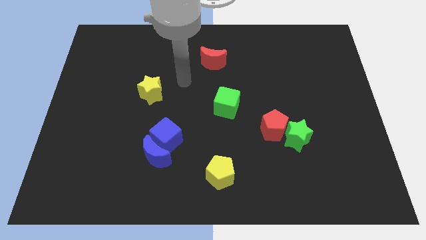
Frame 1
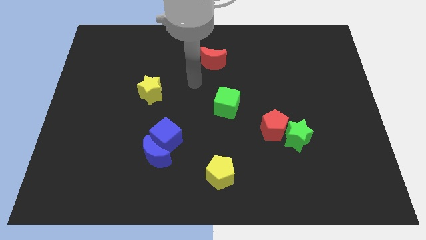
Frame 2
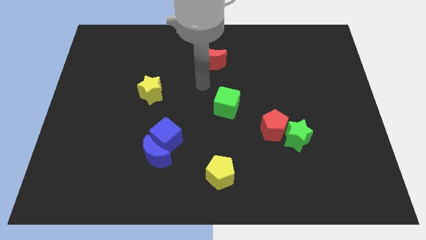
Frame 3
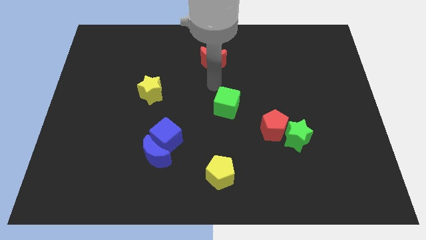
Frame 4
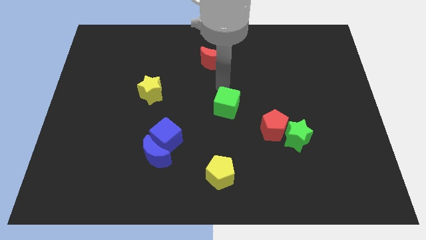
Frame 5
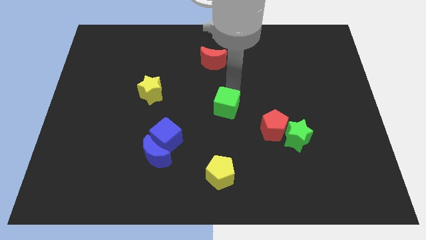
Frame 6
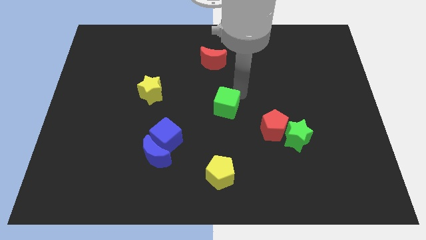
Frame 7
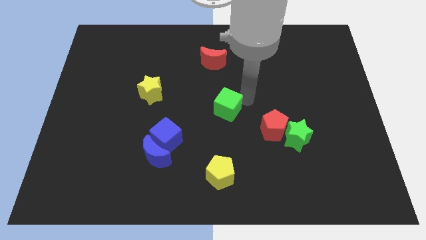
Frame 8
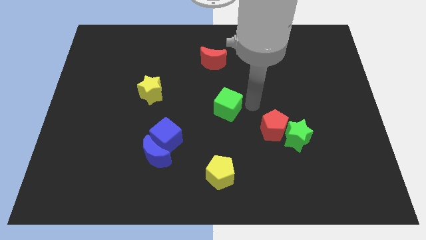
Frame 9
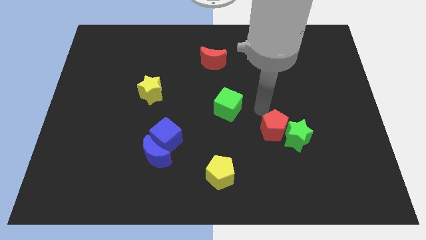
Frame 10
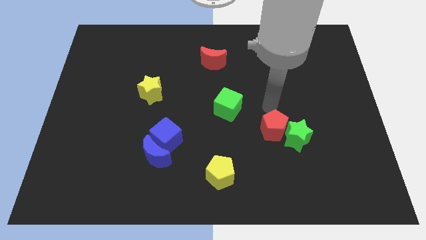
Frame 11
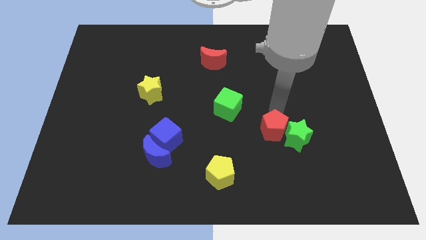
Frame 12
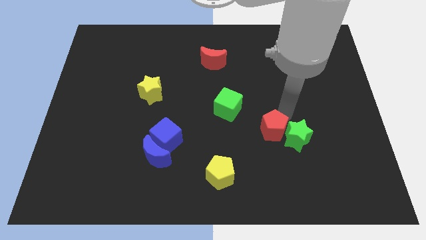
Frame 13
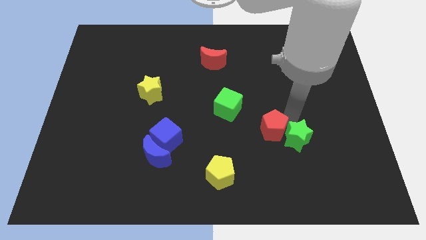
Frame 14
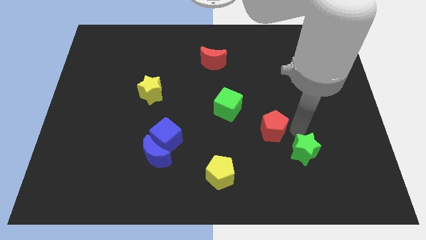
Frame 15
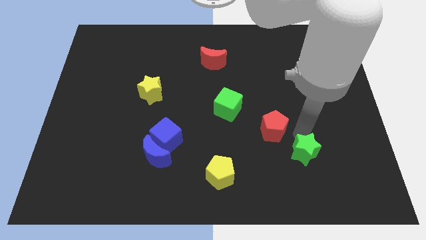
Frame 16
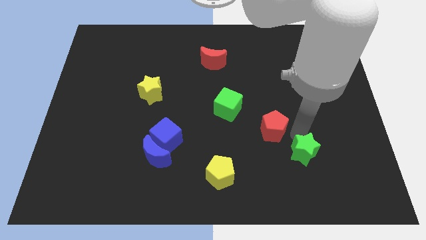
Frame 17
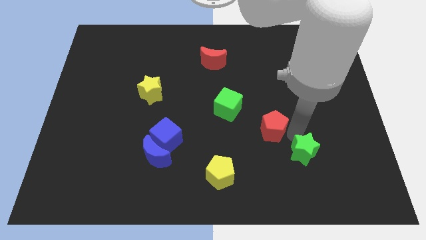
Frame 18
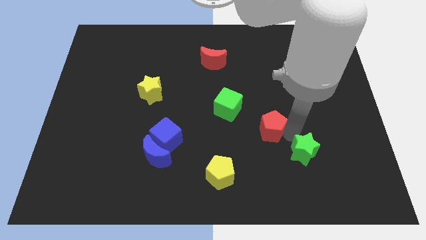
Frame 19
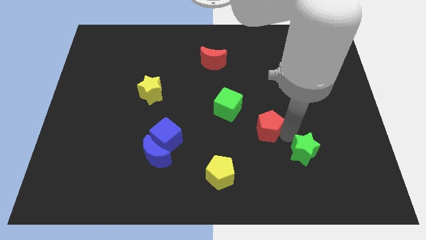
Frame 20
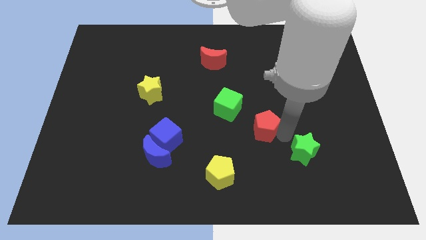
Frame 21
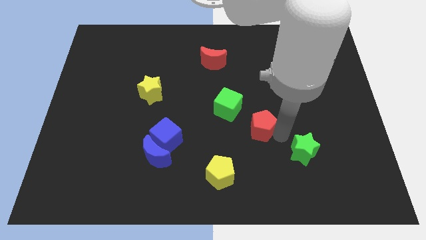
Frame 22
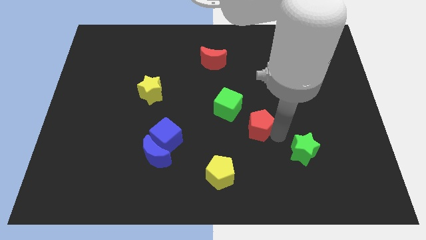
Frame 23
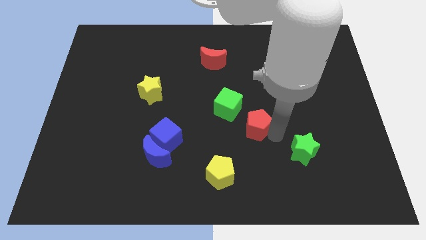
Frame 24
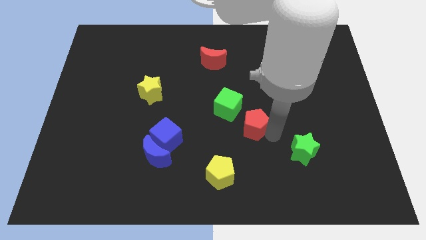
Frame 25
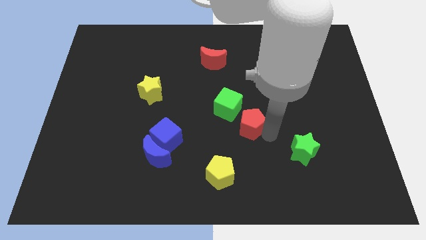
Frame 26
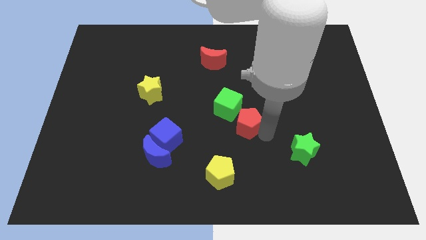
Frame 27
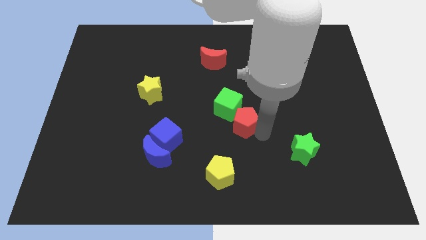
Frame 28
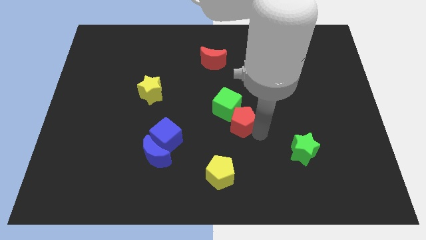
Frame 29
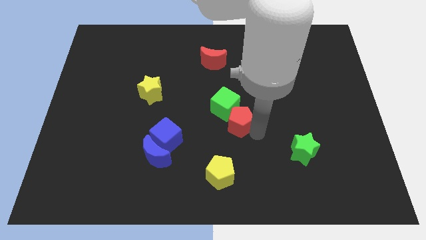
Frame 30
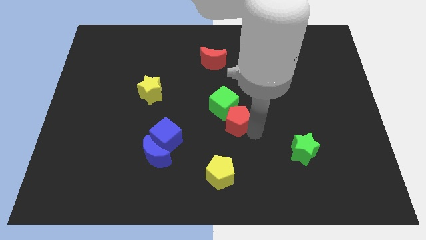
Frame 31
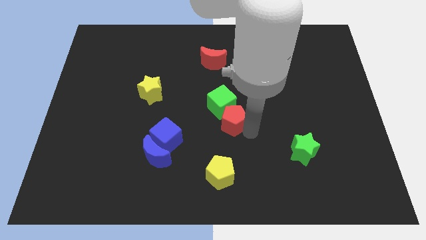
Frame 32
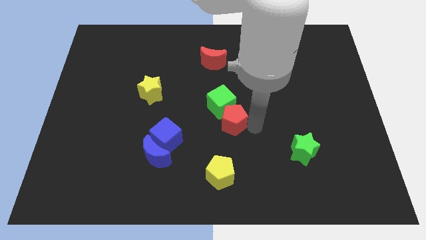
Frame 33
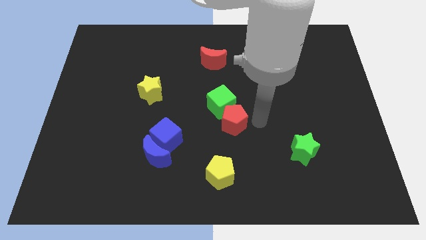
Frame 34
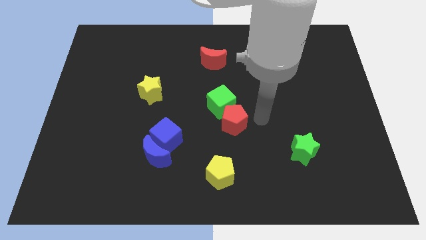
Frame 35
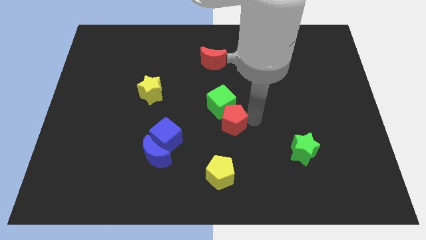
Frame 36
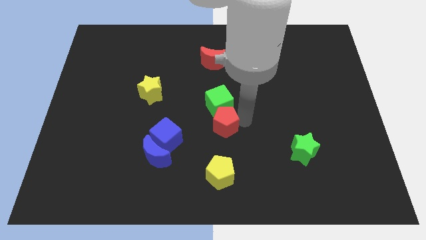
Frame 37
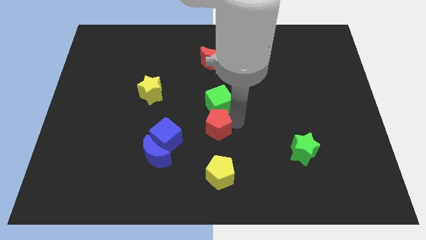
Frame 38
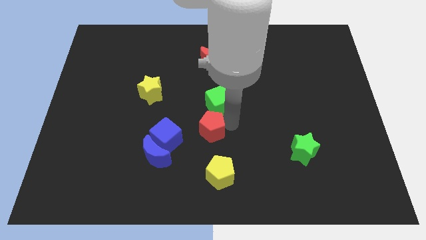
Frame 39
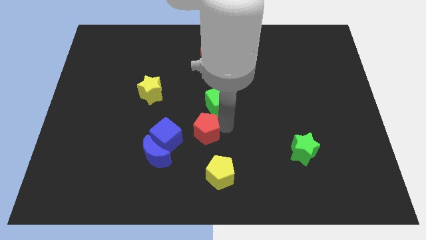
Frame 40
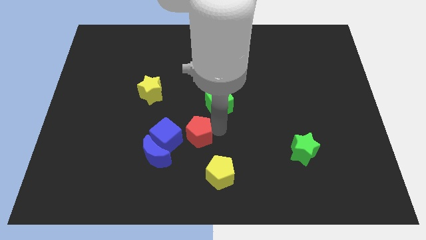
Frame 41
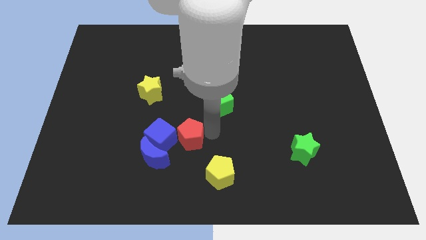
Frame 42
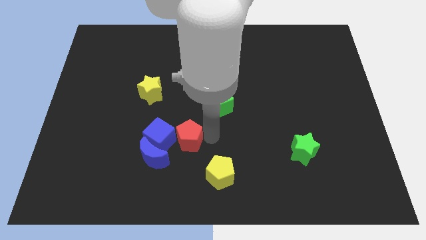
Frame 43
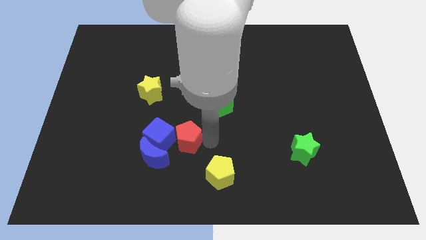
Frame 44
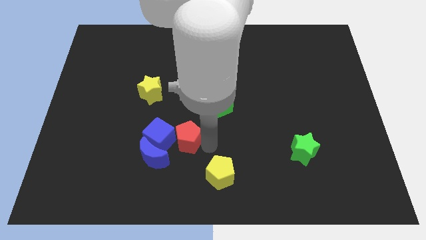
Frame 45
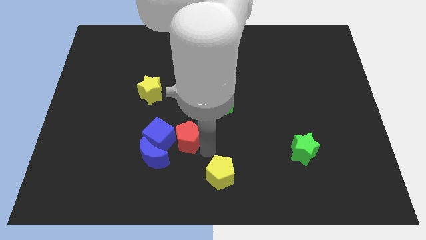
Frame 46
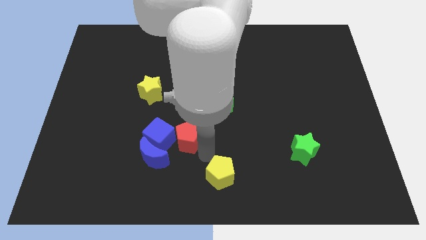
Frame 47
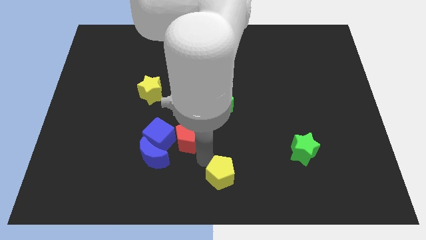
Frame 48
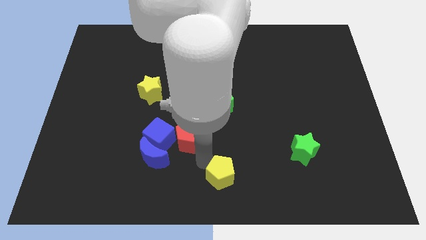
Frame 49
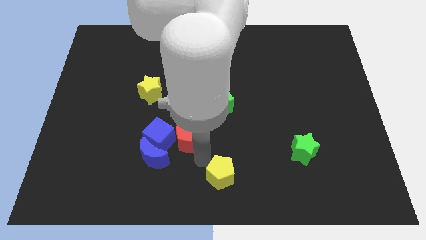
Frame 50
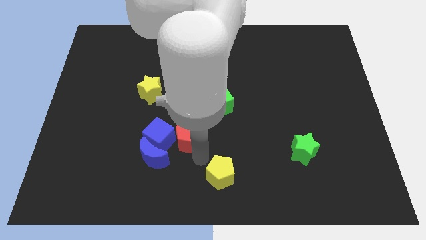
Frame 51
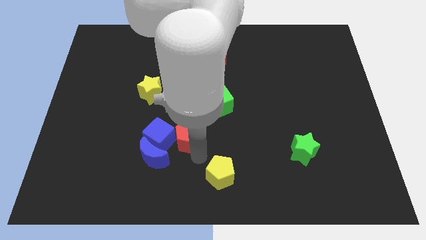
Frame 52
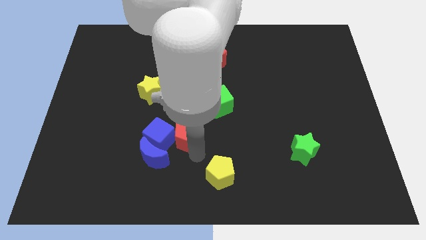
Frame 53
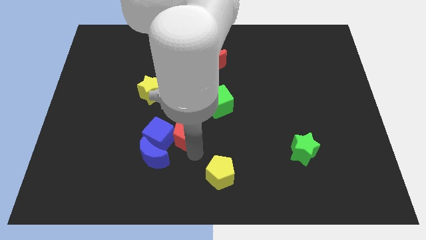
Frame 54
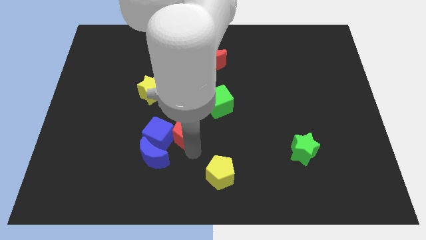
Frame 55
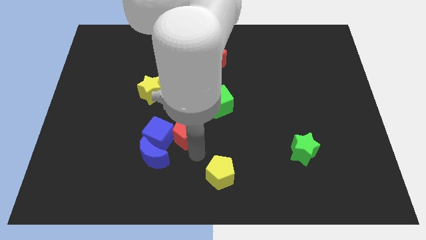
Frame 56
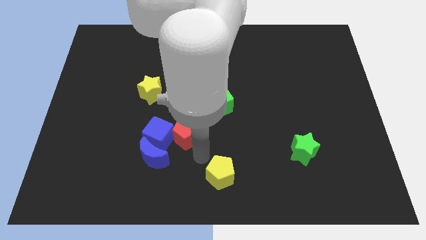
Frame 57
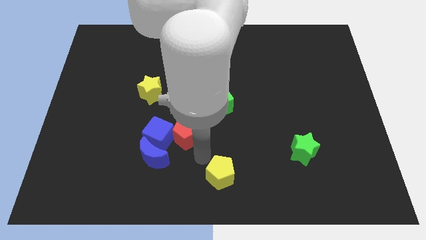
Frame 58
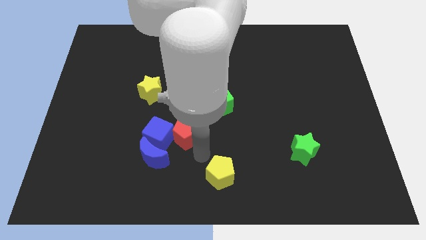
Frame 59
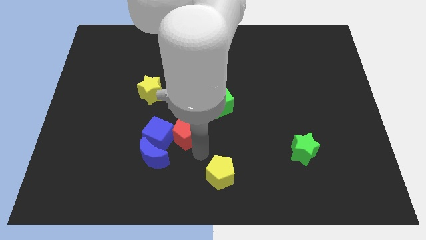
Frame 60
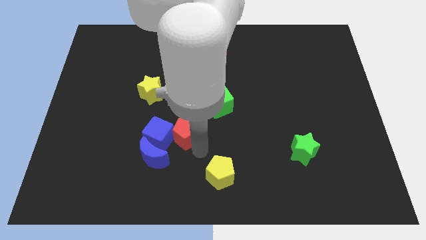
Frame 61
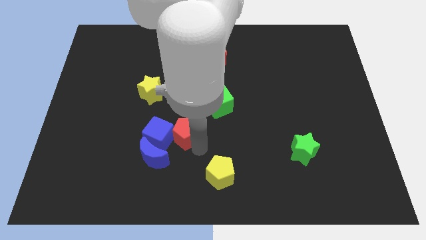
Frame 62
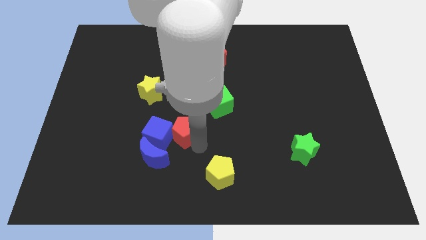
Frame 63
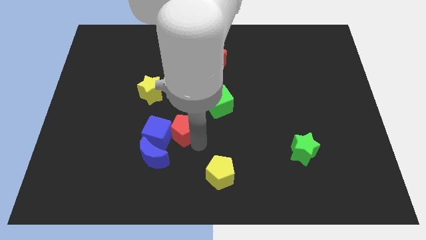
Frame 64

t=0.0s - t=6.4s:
move the red pentagon left

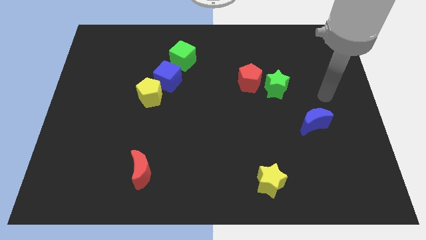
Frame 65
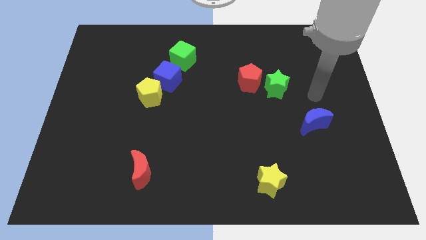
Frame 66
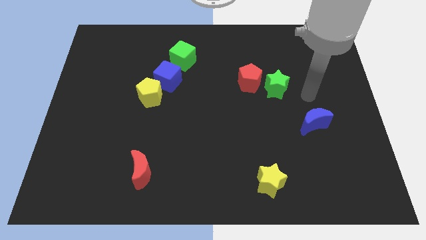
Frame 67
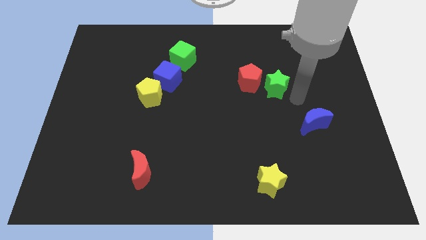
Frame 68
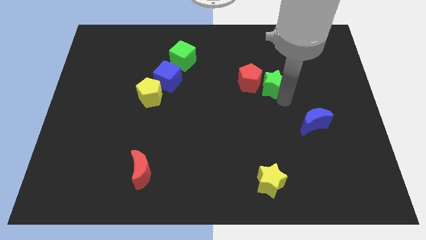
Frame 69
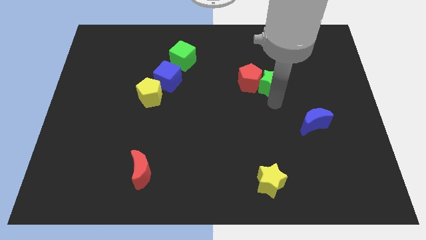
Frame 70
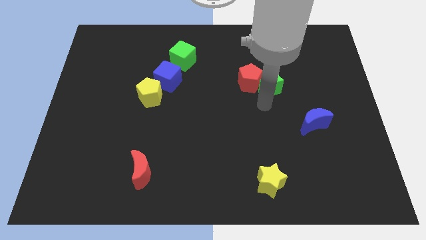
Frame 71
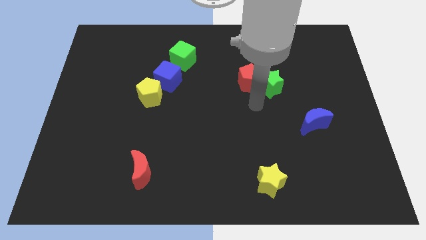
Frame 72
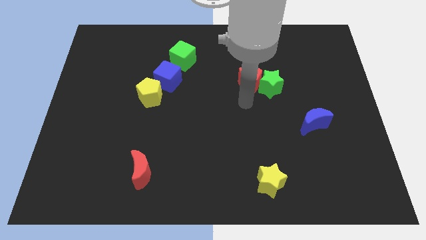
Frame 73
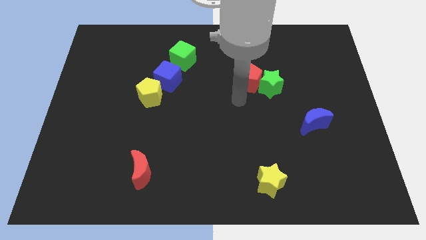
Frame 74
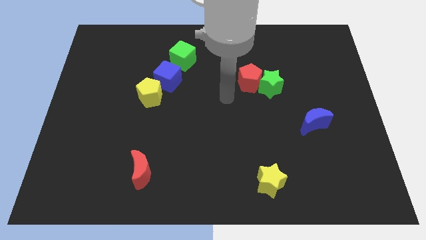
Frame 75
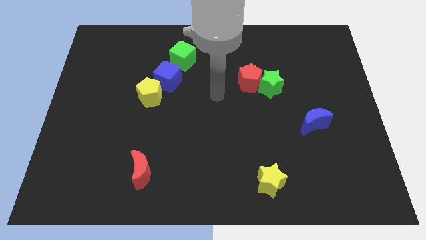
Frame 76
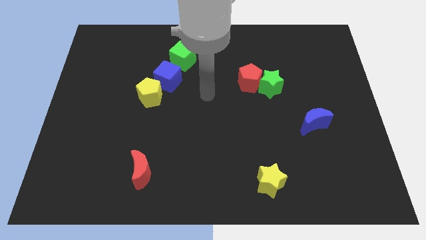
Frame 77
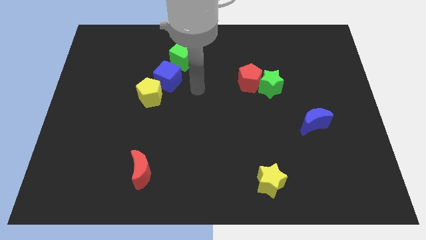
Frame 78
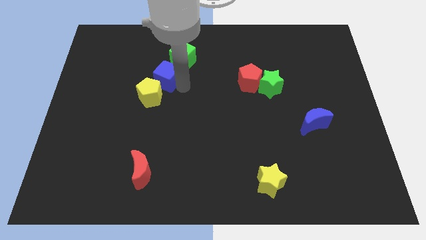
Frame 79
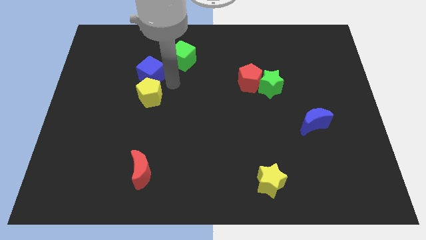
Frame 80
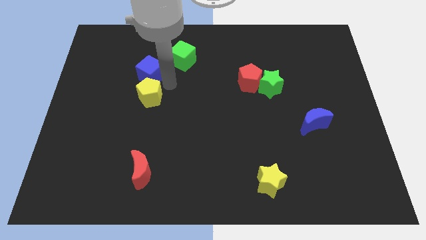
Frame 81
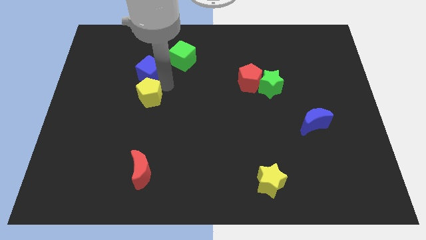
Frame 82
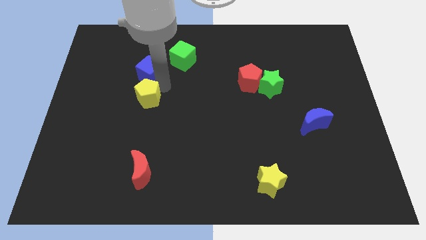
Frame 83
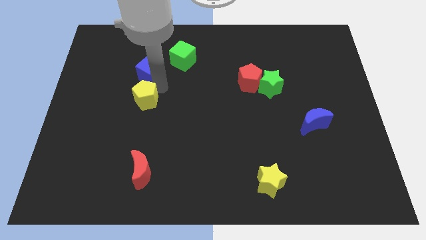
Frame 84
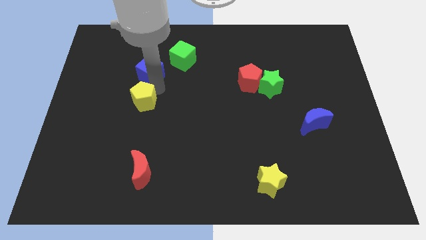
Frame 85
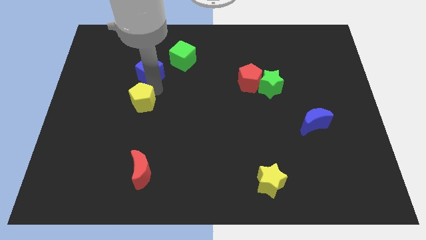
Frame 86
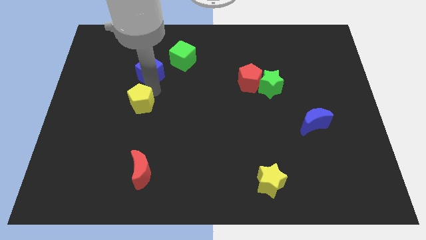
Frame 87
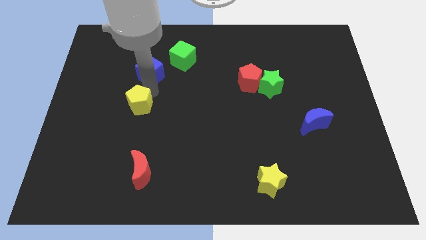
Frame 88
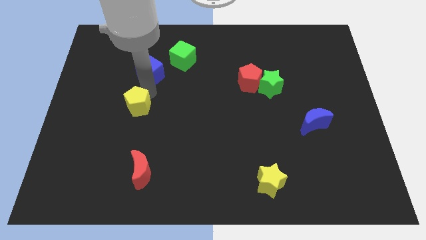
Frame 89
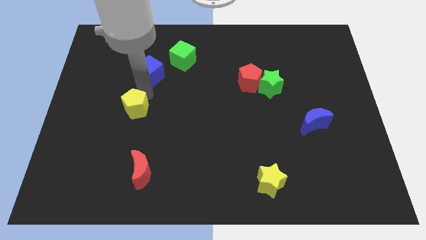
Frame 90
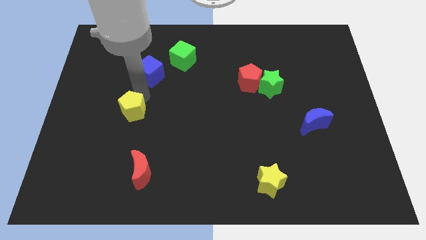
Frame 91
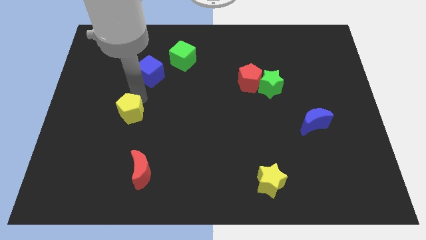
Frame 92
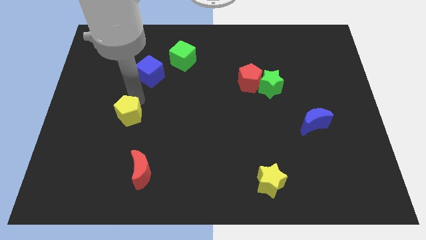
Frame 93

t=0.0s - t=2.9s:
slide the yellow pentagon downwards and to the left a little bit
